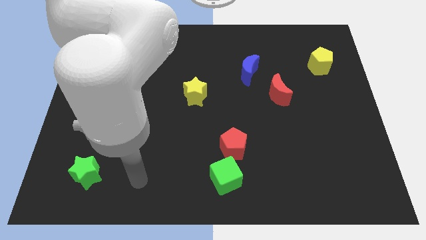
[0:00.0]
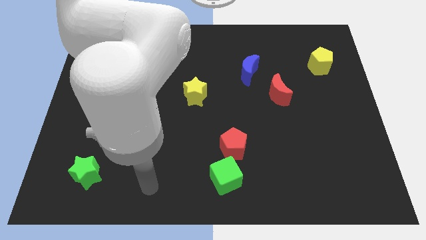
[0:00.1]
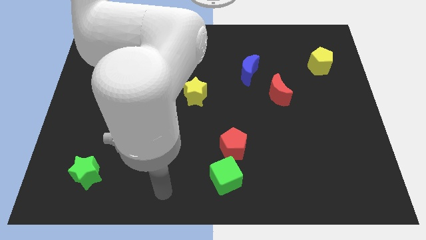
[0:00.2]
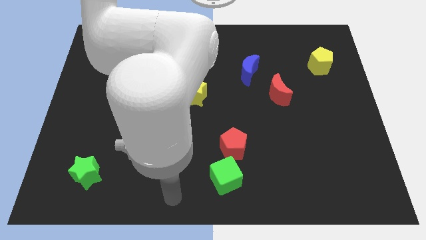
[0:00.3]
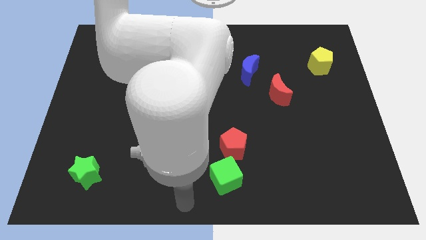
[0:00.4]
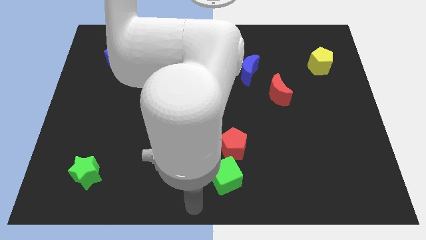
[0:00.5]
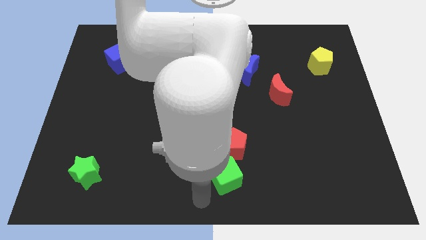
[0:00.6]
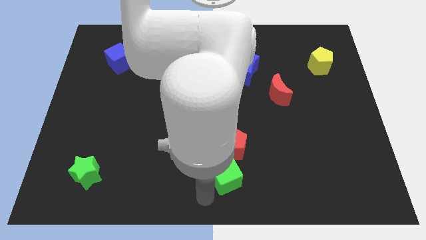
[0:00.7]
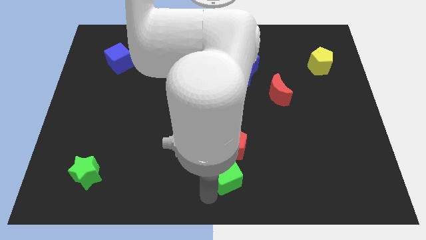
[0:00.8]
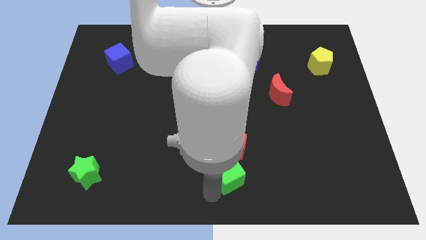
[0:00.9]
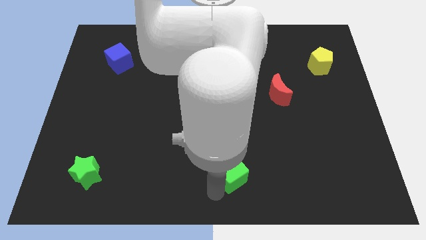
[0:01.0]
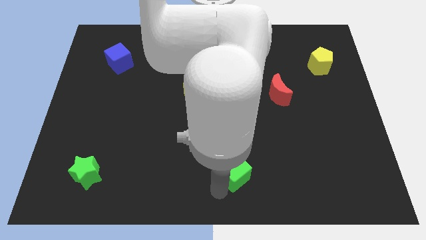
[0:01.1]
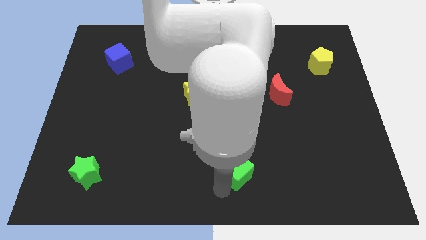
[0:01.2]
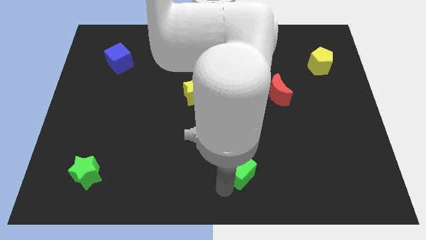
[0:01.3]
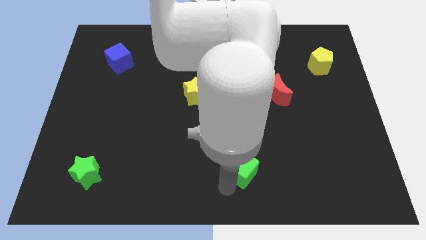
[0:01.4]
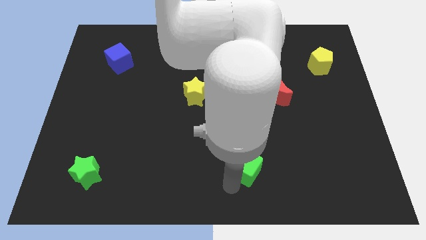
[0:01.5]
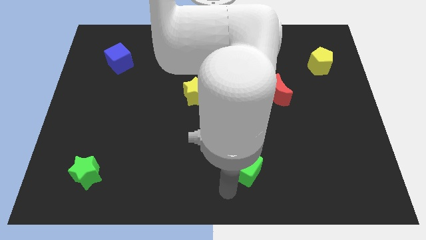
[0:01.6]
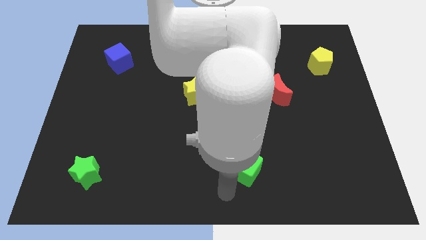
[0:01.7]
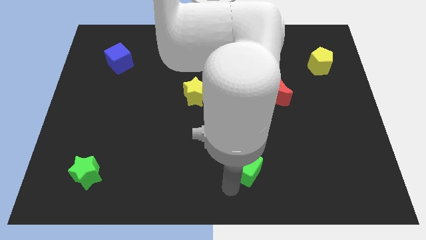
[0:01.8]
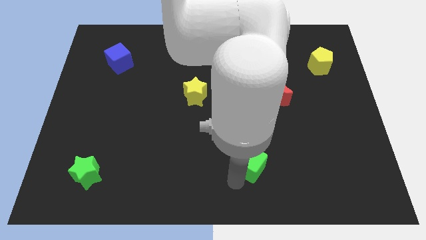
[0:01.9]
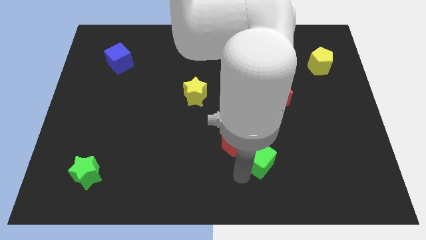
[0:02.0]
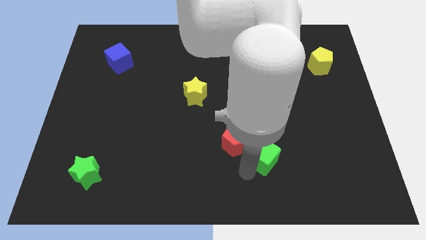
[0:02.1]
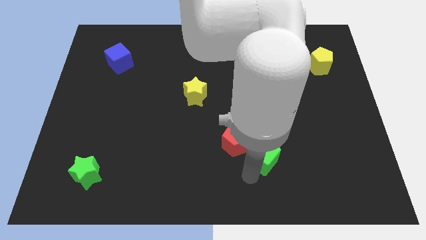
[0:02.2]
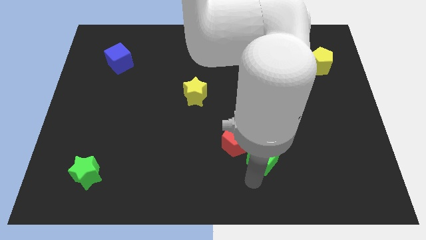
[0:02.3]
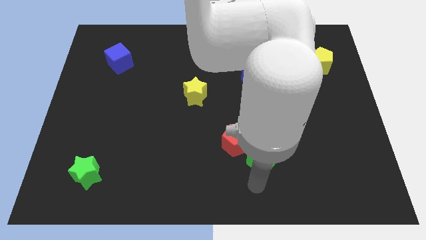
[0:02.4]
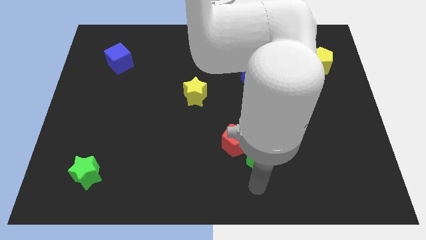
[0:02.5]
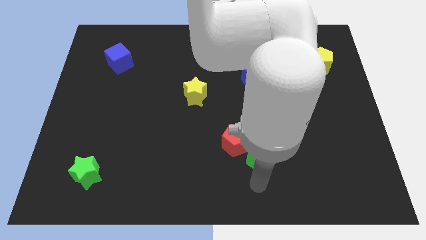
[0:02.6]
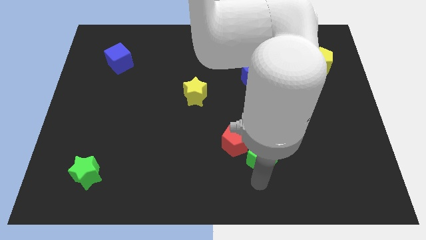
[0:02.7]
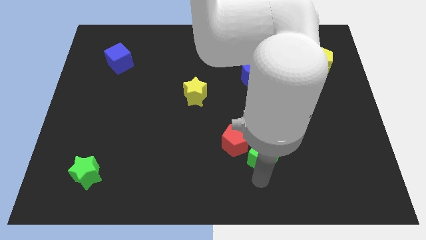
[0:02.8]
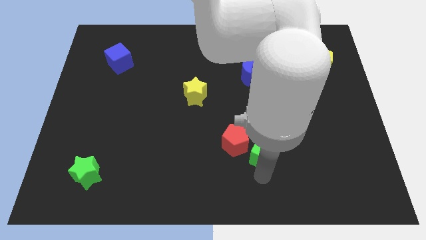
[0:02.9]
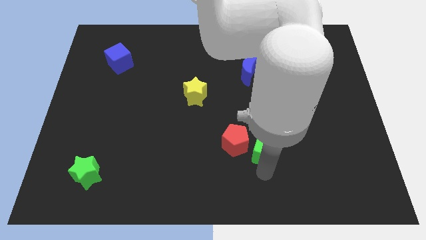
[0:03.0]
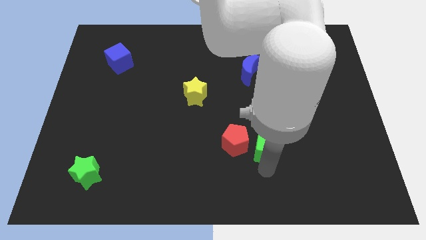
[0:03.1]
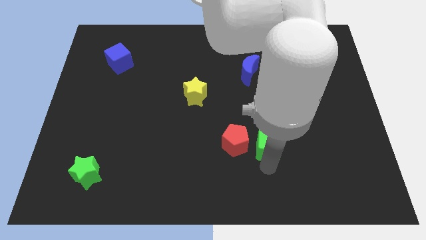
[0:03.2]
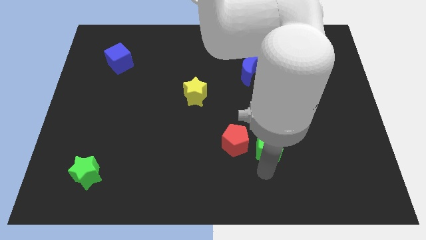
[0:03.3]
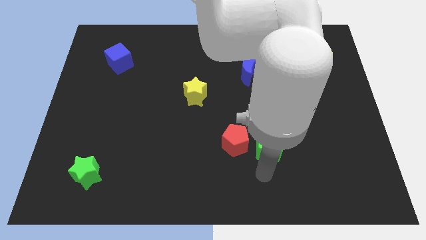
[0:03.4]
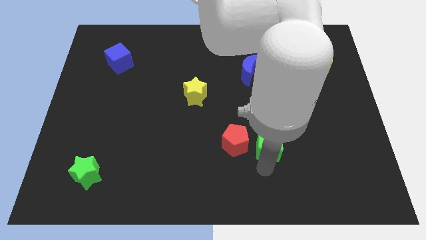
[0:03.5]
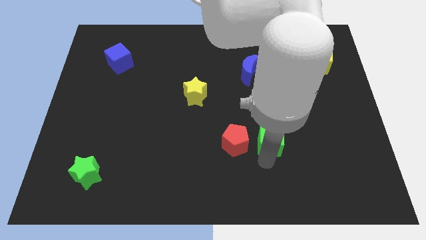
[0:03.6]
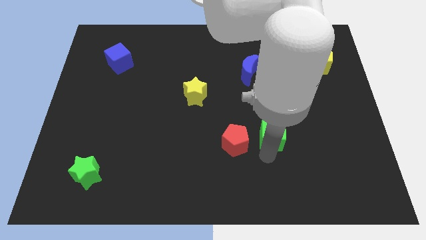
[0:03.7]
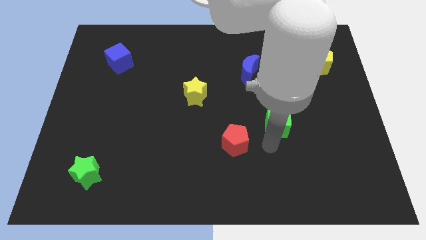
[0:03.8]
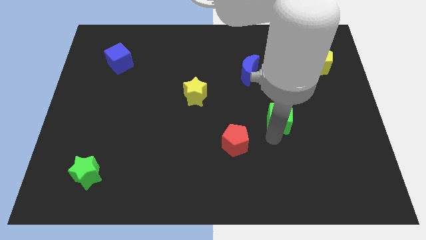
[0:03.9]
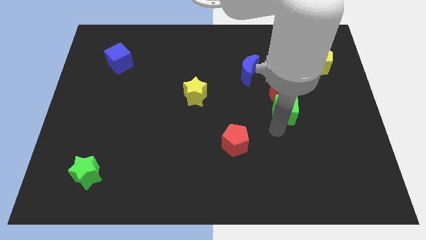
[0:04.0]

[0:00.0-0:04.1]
slide the green cube to the red moon

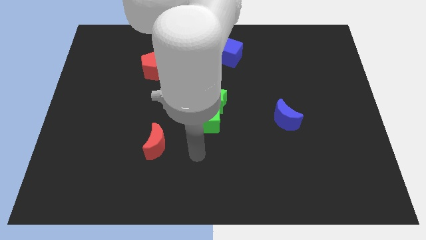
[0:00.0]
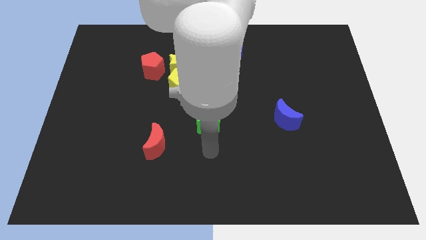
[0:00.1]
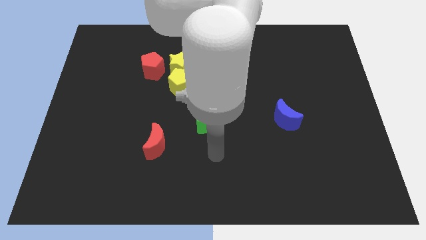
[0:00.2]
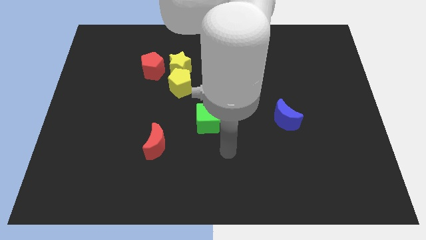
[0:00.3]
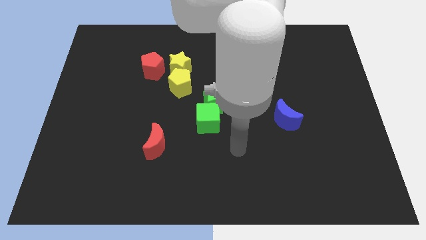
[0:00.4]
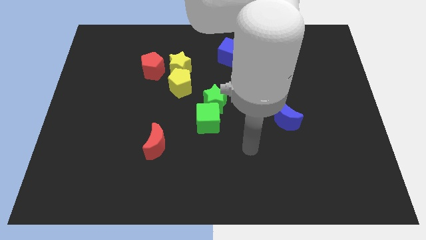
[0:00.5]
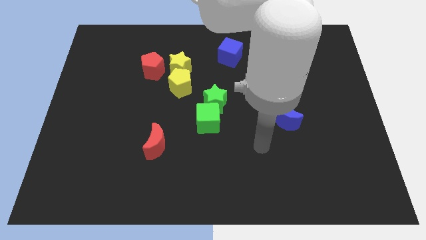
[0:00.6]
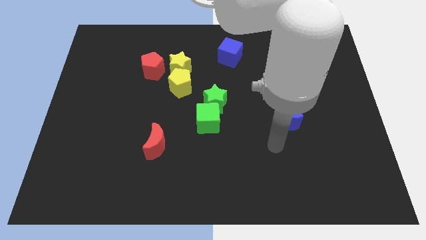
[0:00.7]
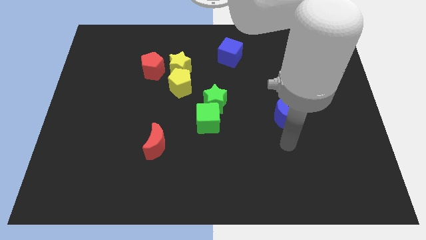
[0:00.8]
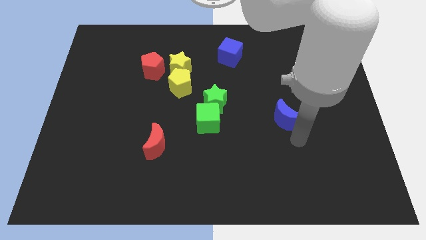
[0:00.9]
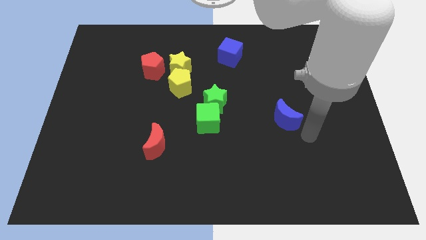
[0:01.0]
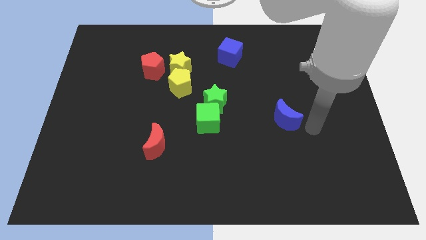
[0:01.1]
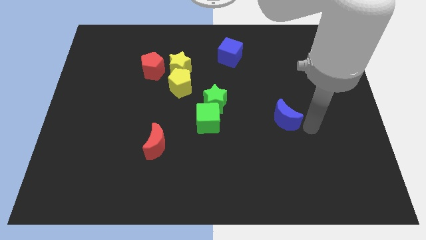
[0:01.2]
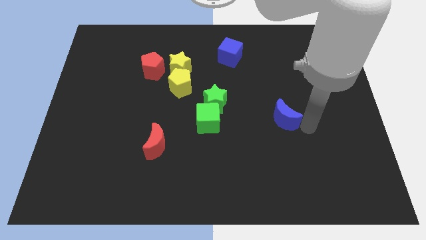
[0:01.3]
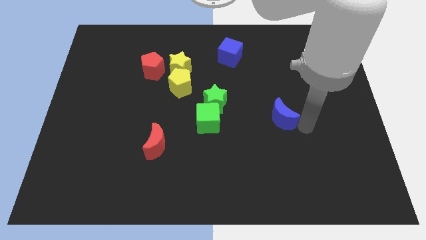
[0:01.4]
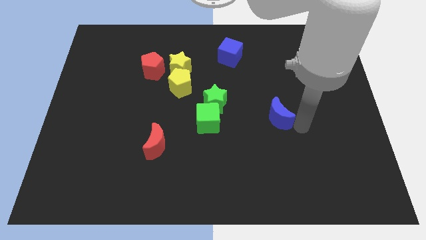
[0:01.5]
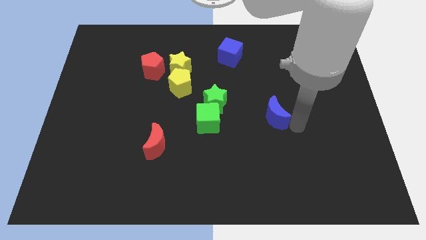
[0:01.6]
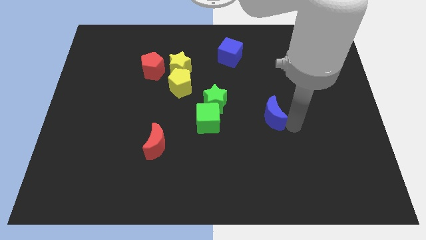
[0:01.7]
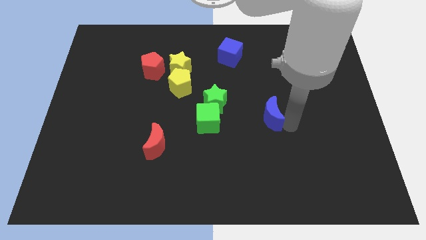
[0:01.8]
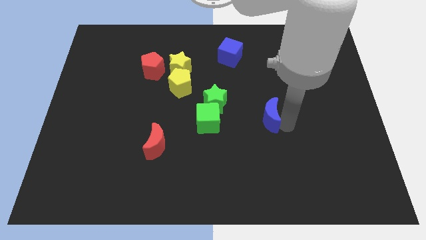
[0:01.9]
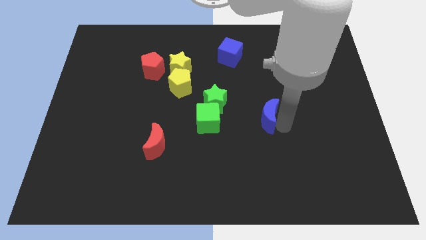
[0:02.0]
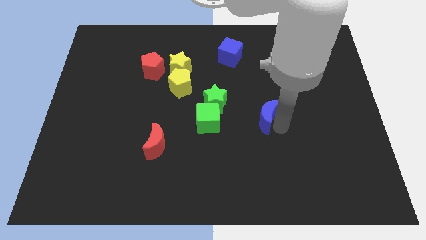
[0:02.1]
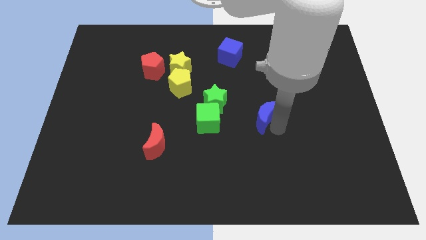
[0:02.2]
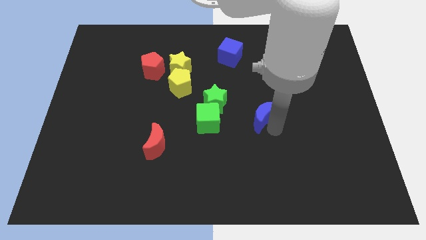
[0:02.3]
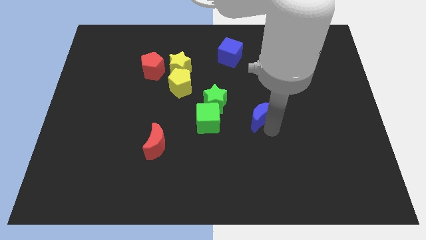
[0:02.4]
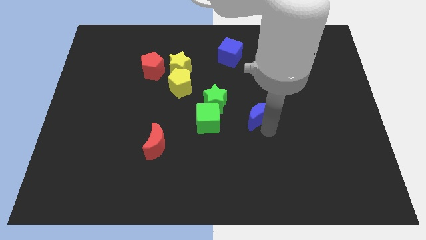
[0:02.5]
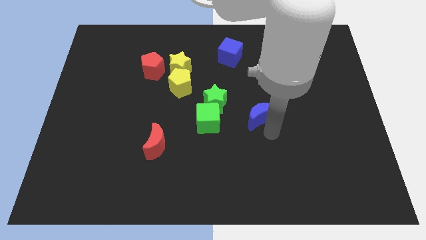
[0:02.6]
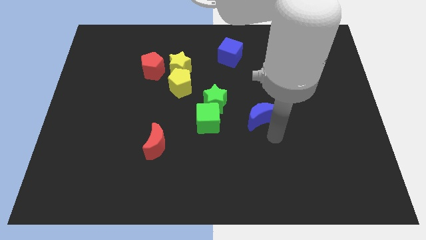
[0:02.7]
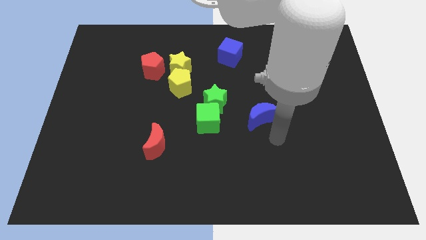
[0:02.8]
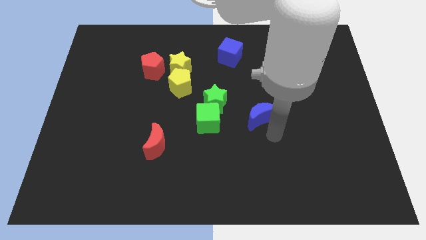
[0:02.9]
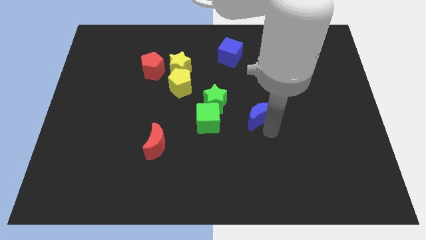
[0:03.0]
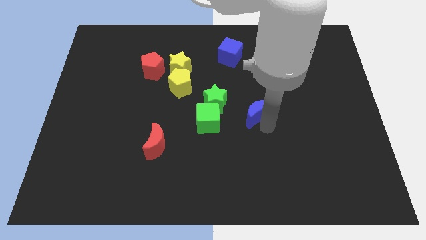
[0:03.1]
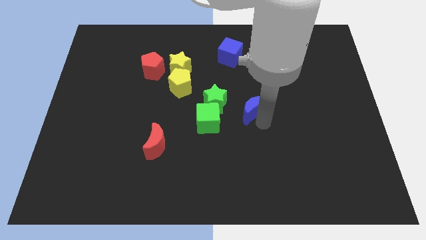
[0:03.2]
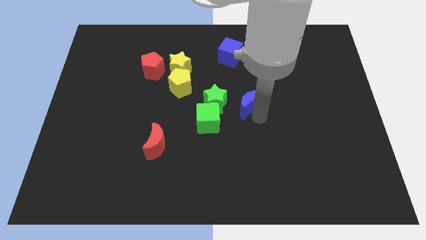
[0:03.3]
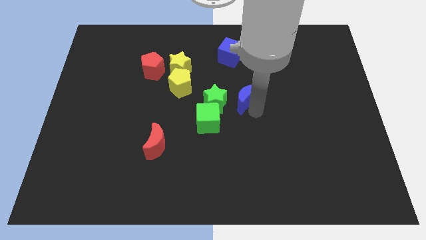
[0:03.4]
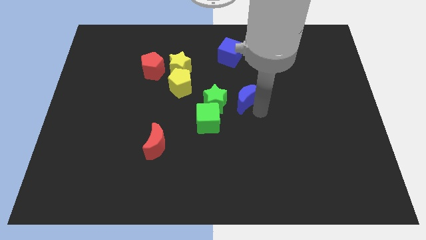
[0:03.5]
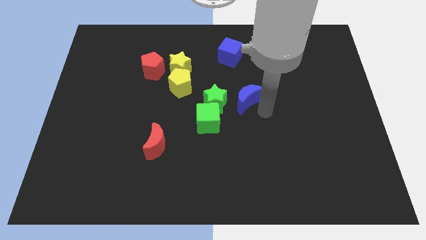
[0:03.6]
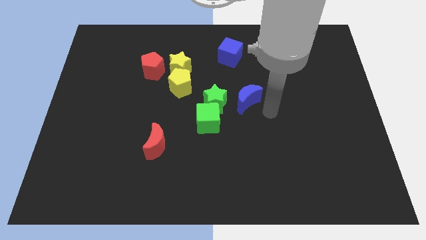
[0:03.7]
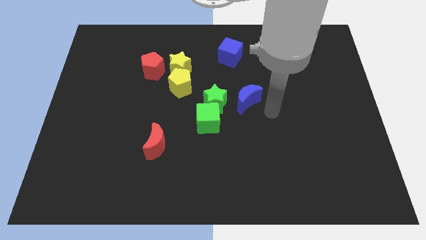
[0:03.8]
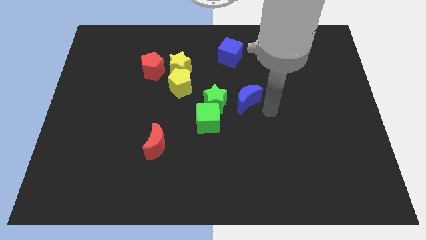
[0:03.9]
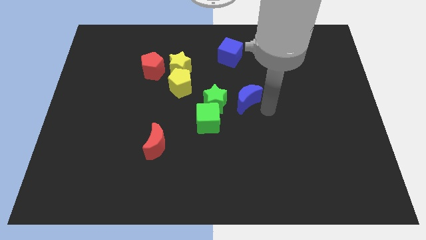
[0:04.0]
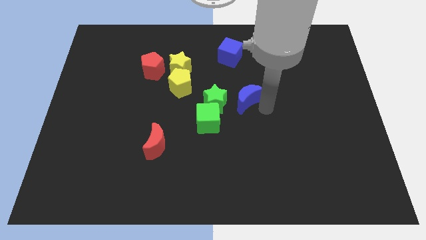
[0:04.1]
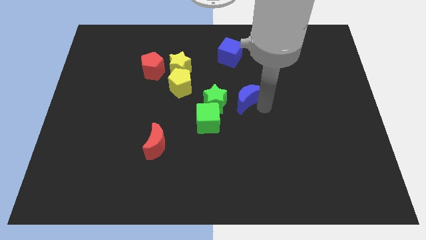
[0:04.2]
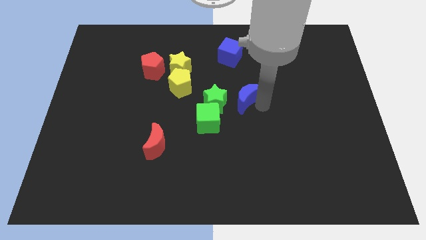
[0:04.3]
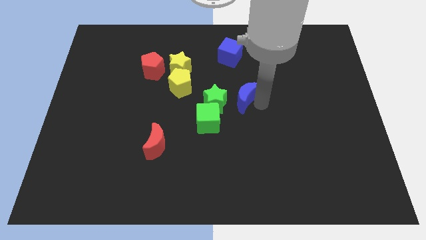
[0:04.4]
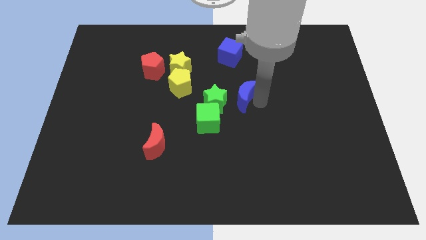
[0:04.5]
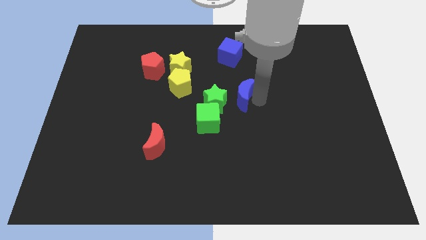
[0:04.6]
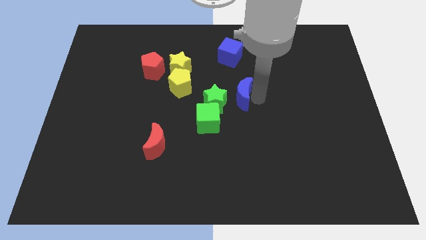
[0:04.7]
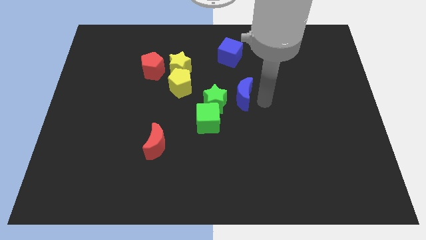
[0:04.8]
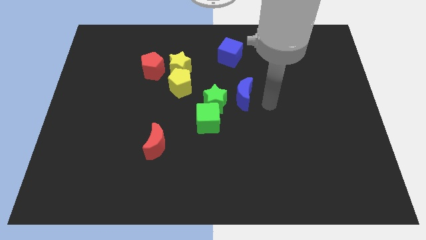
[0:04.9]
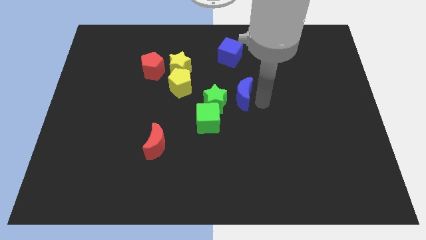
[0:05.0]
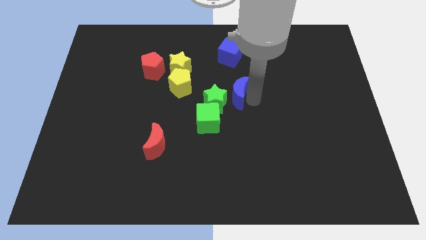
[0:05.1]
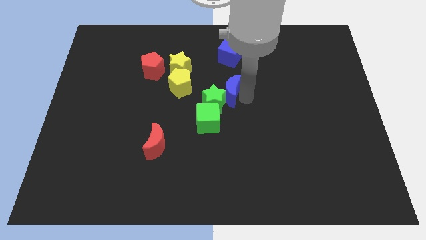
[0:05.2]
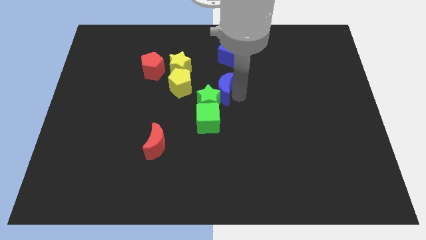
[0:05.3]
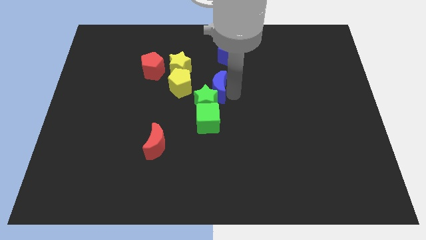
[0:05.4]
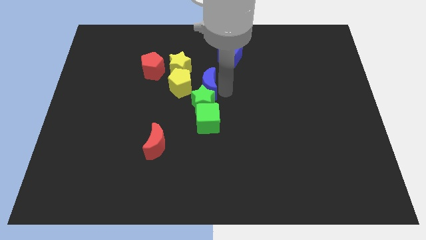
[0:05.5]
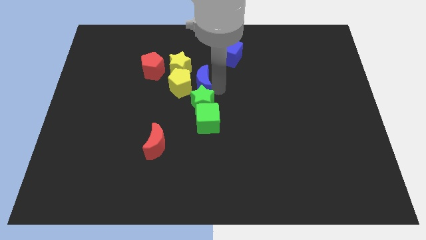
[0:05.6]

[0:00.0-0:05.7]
slide the blue moon close to the yellow pentagon
